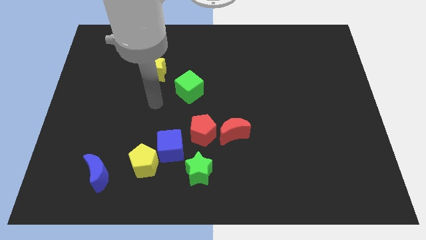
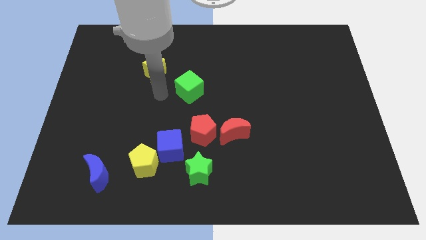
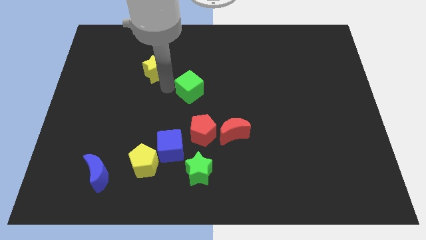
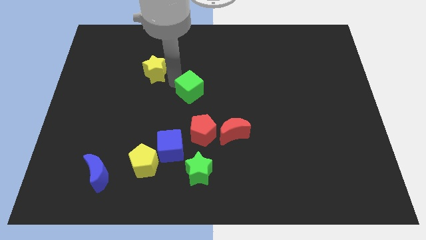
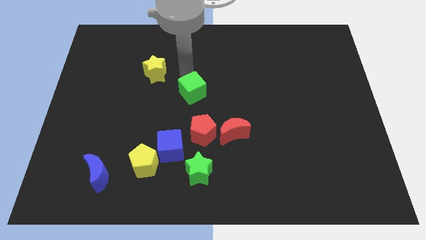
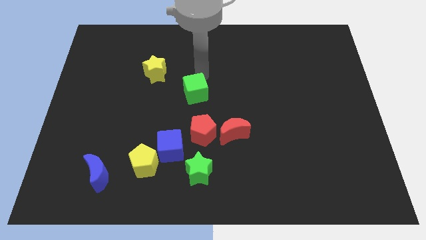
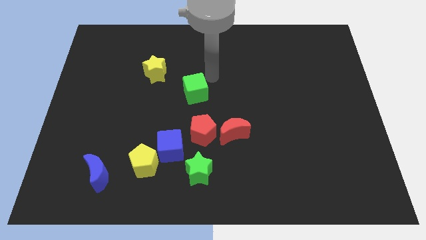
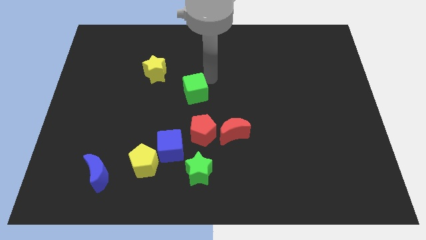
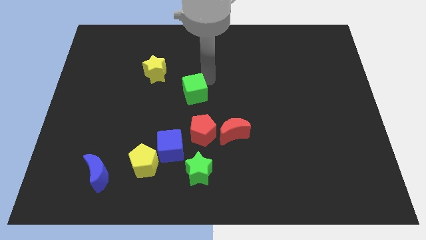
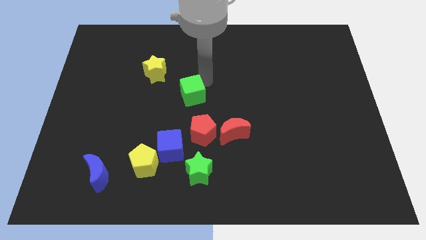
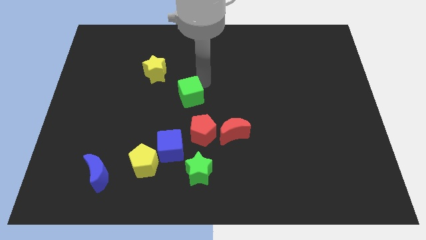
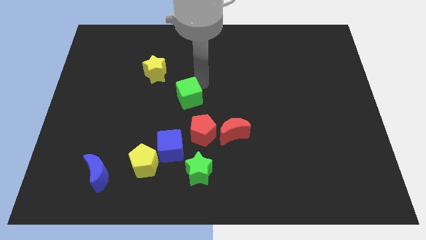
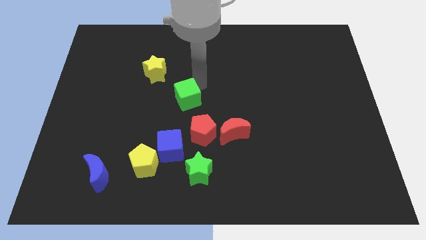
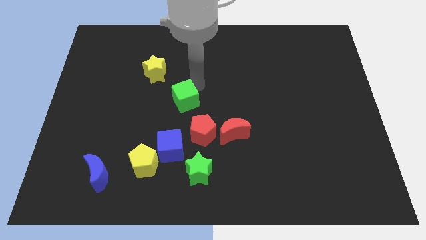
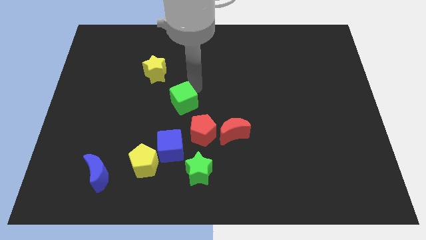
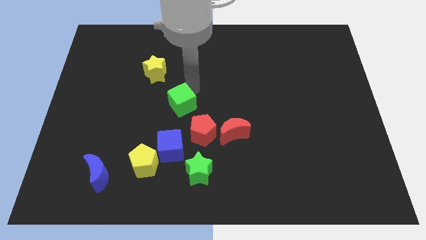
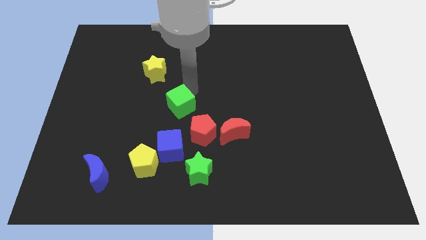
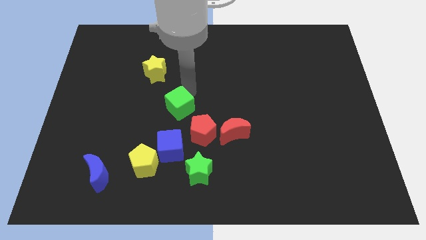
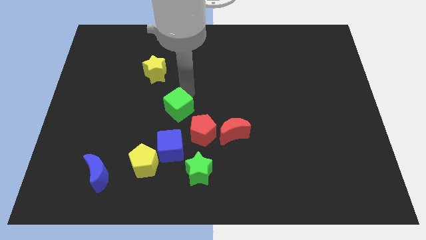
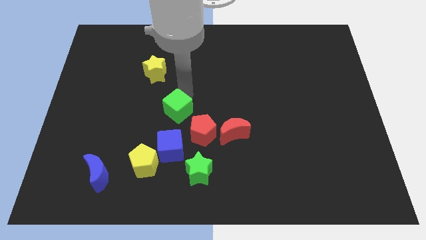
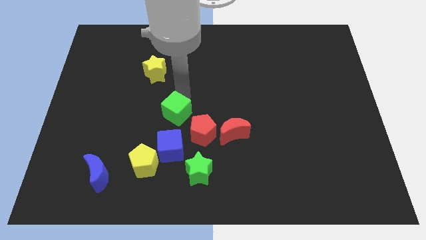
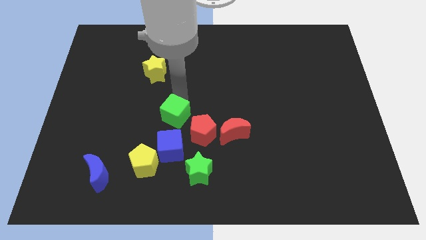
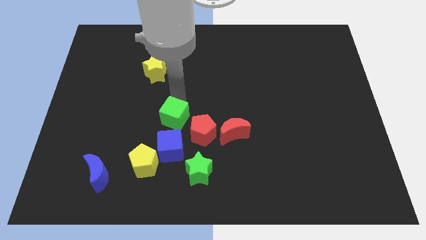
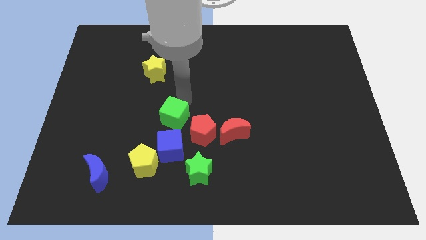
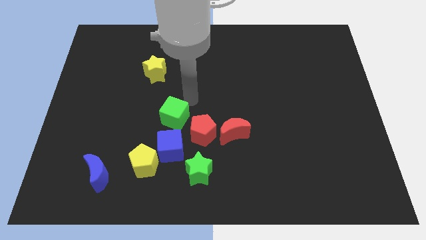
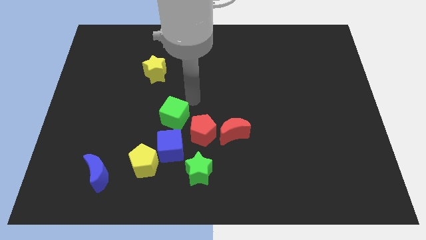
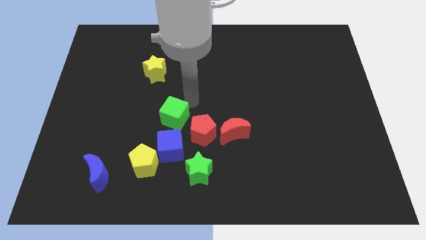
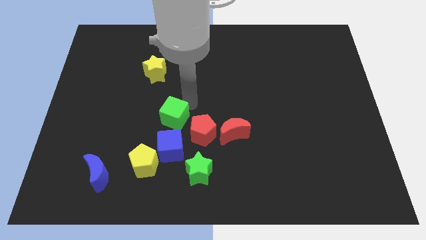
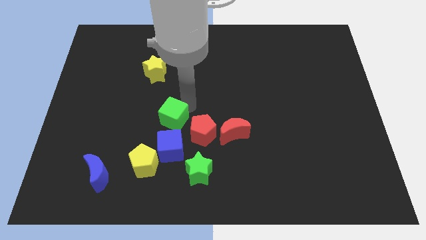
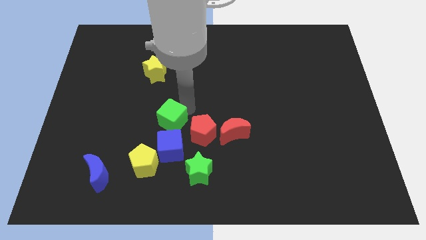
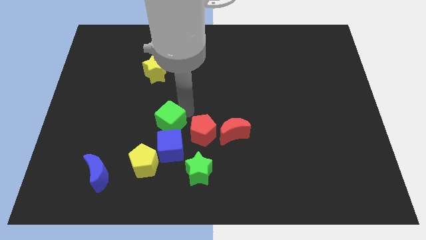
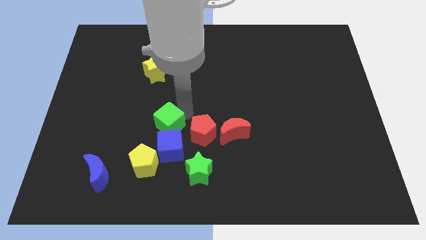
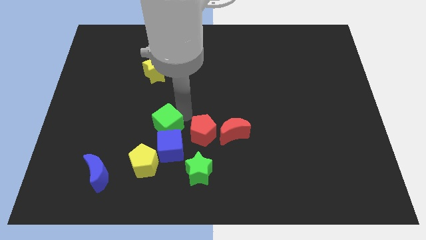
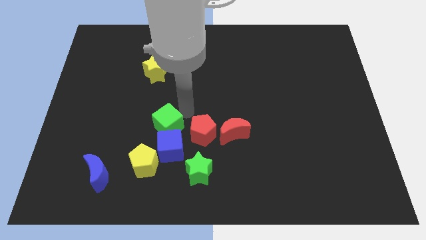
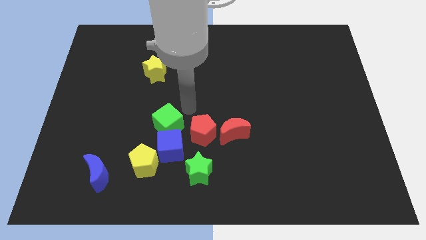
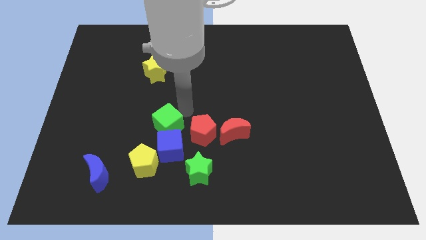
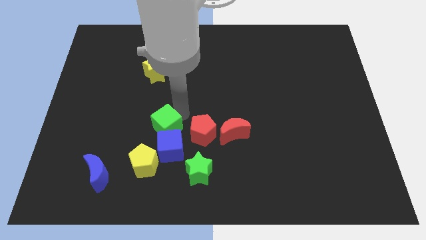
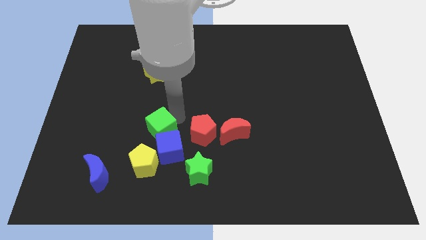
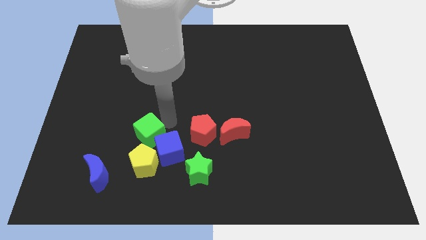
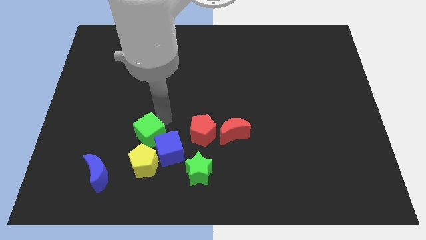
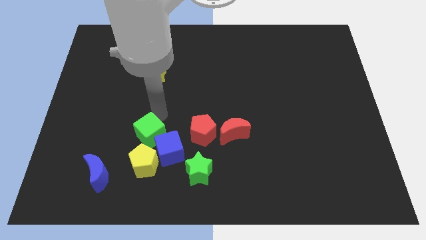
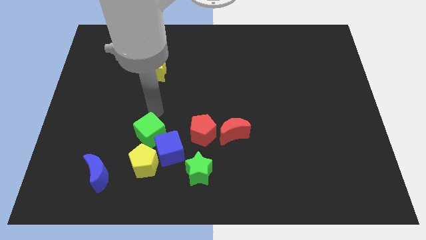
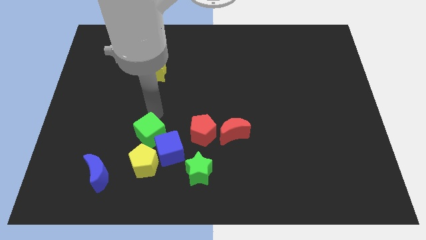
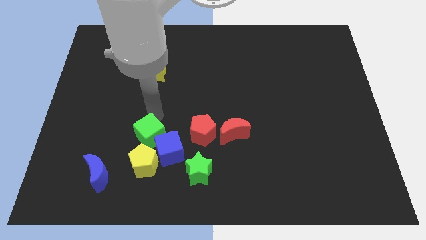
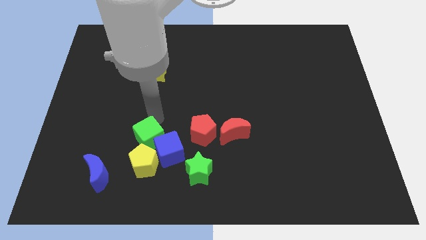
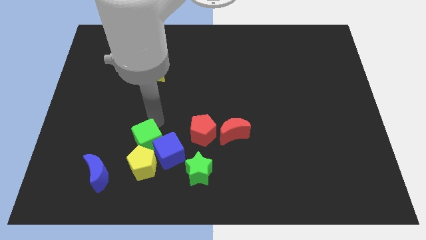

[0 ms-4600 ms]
slide the green cube to the yellow pentagon

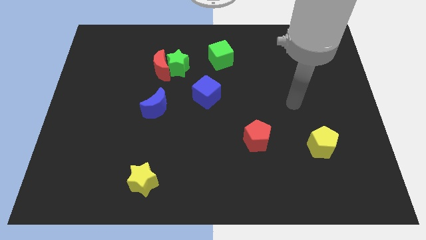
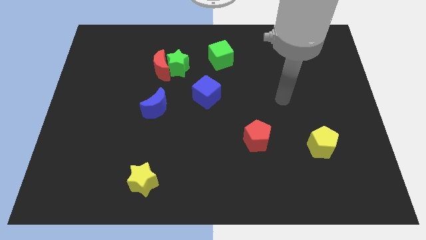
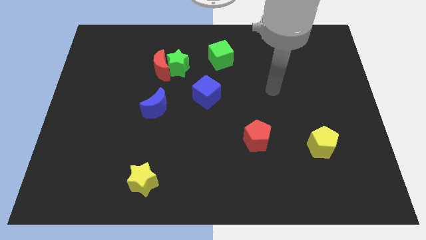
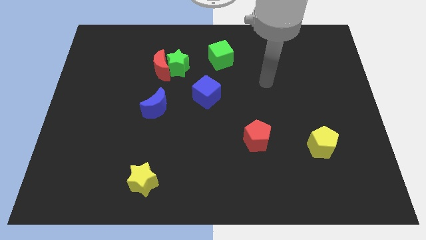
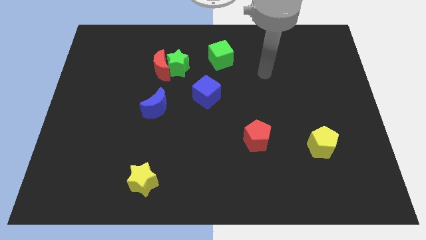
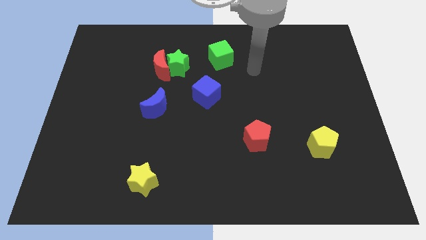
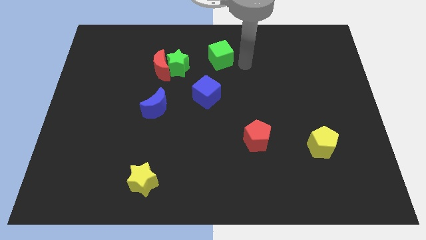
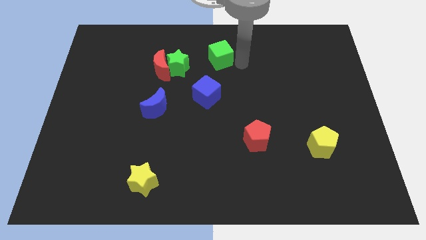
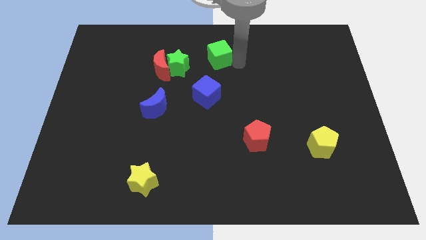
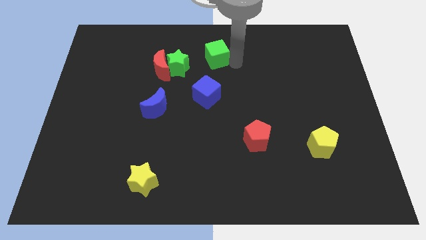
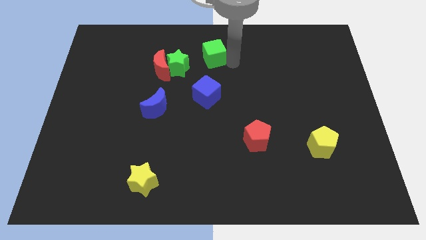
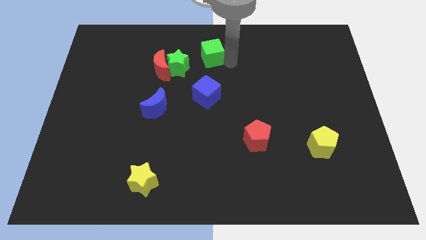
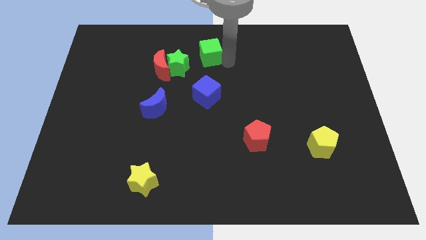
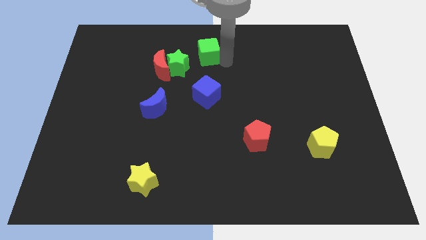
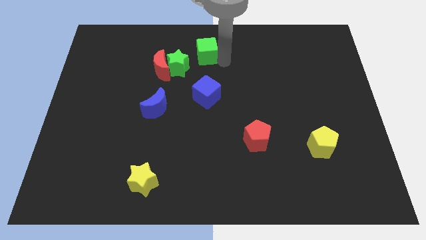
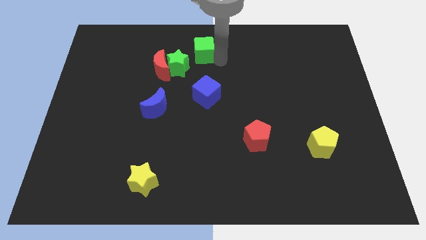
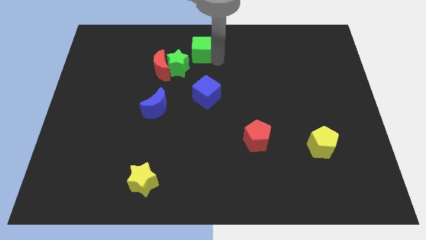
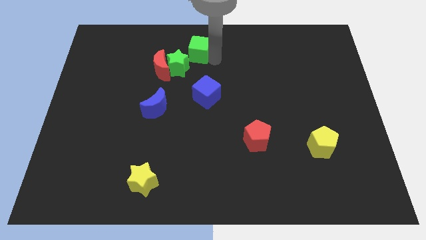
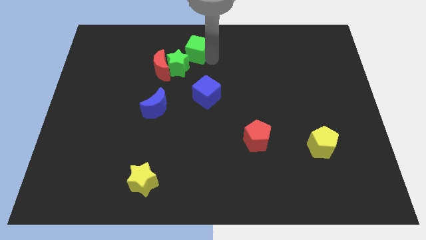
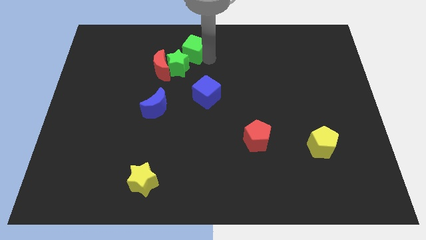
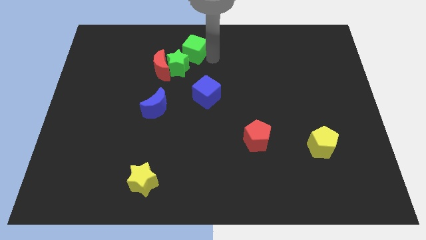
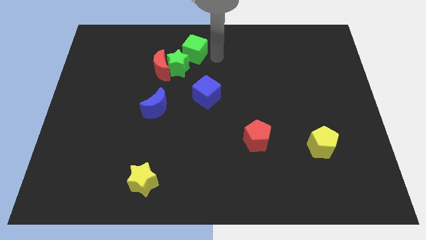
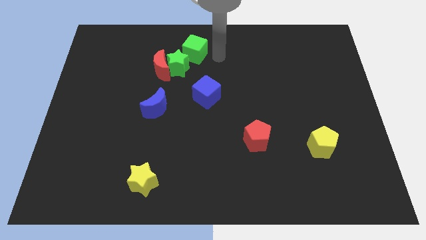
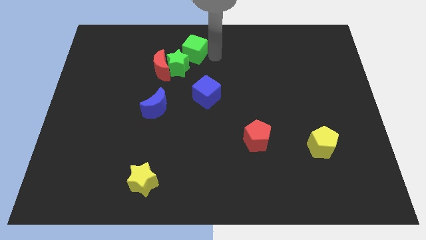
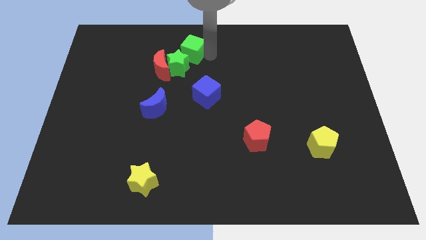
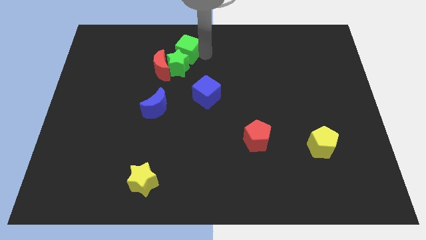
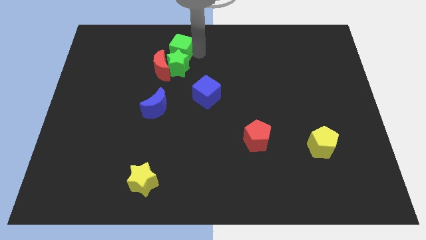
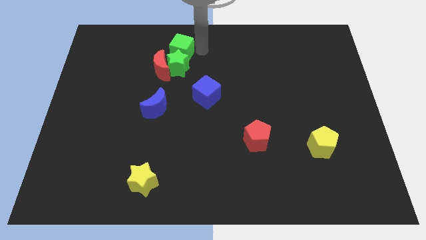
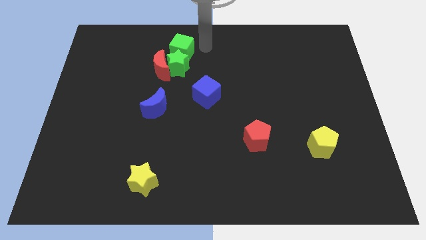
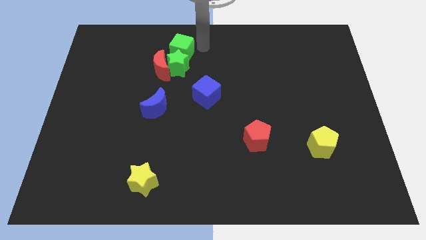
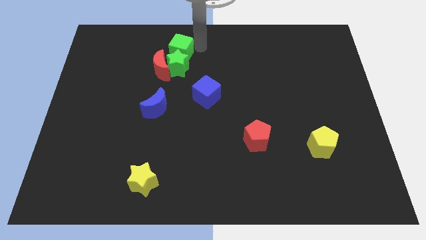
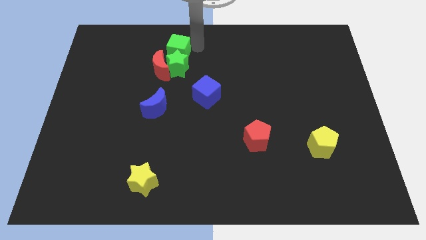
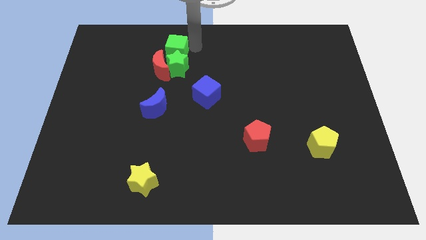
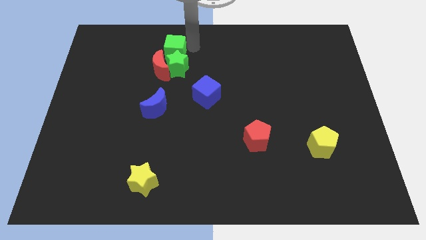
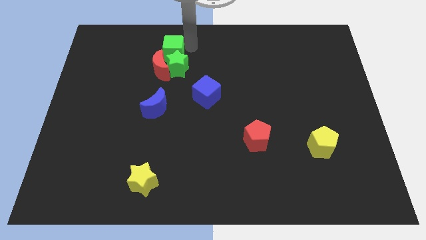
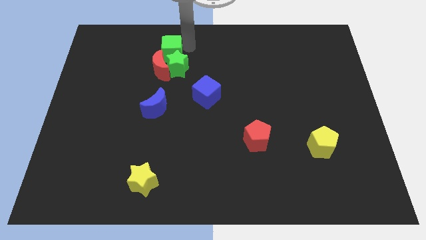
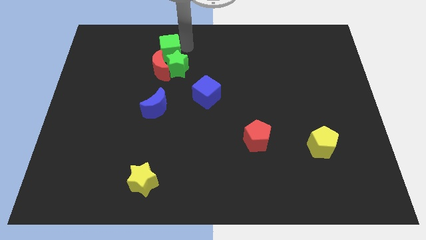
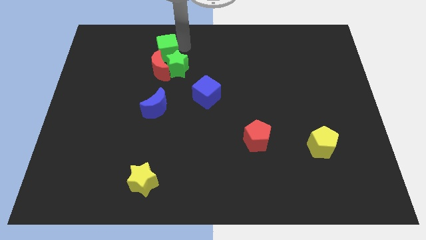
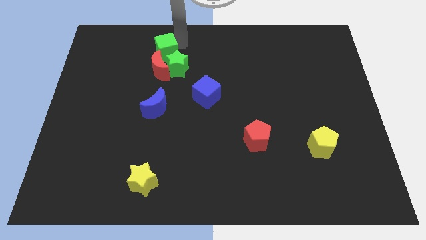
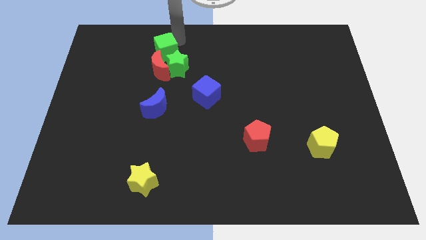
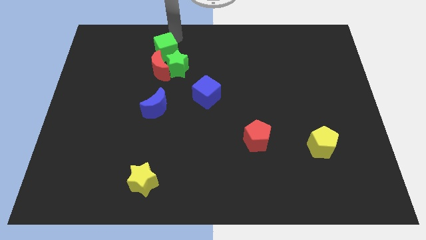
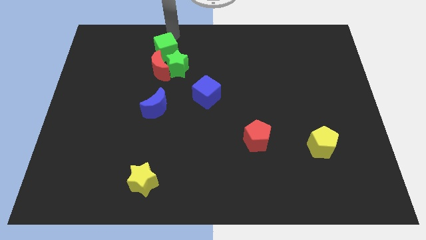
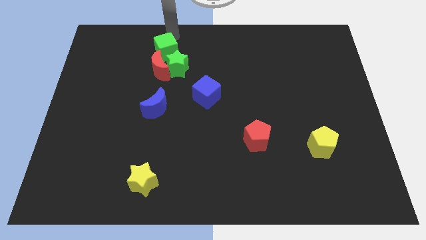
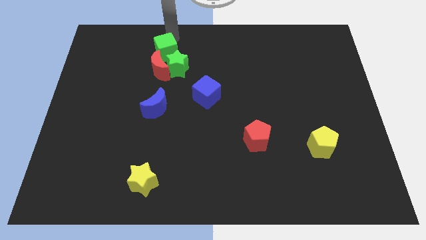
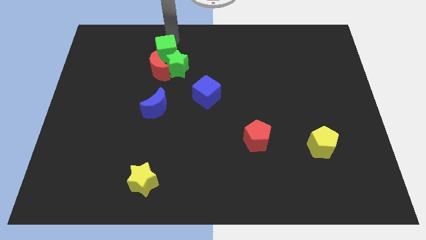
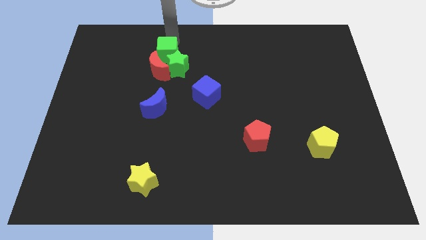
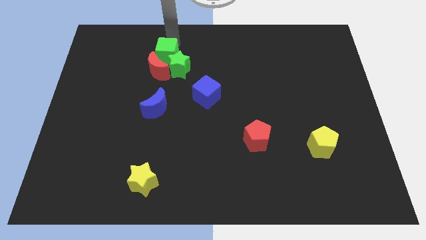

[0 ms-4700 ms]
slide the green cube to the red moon
